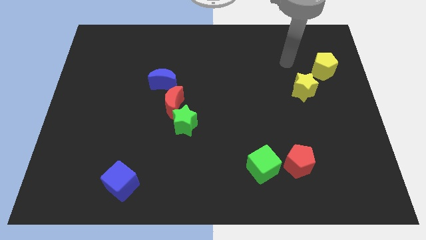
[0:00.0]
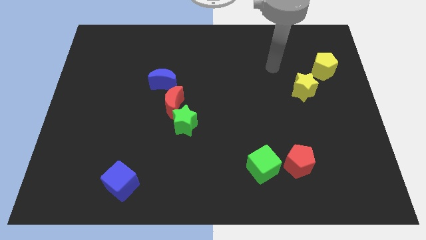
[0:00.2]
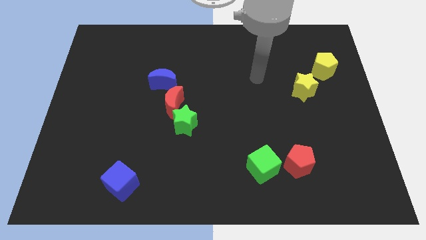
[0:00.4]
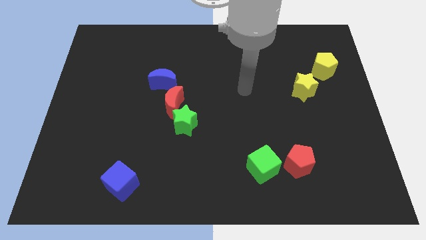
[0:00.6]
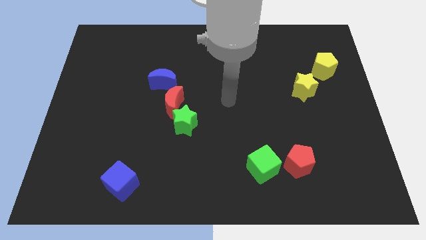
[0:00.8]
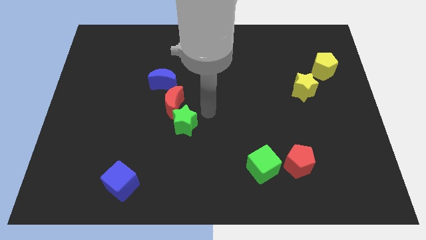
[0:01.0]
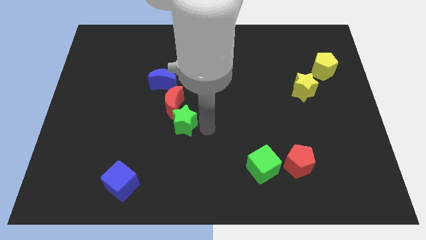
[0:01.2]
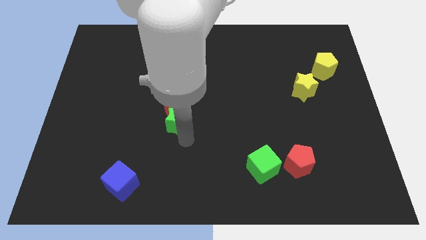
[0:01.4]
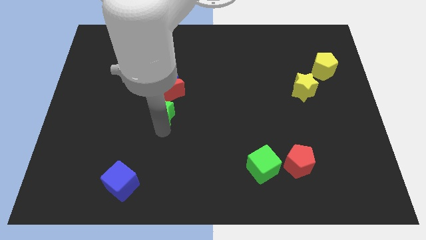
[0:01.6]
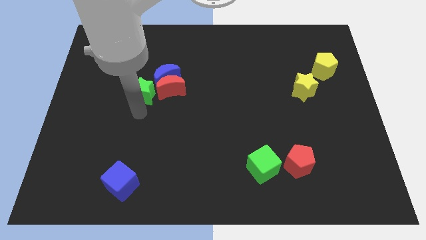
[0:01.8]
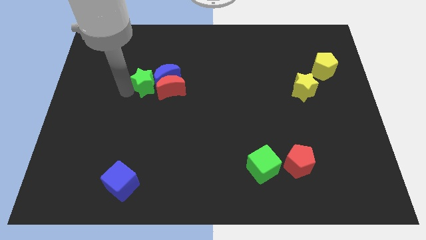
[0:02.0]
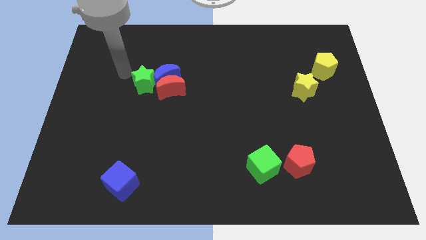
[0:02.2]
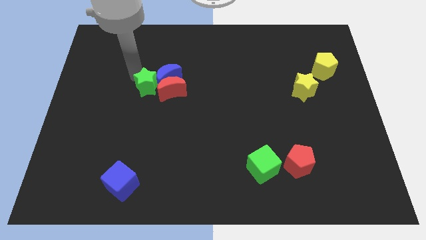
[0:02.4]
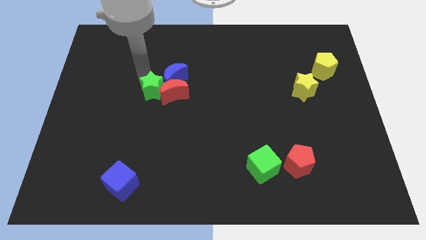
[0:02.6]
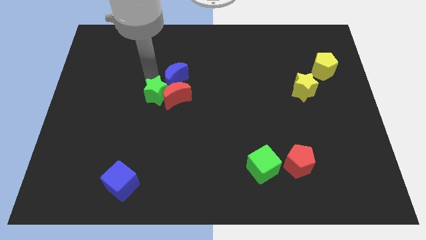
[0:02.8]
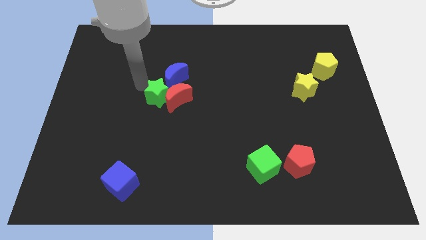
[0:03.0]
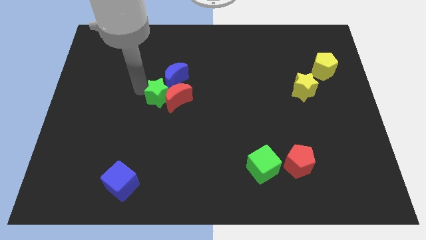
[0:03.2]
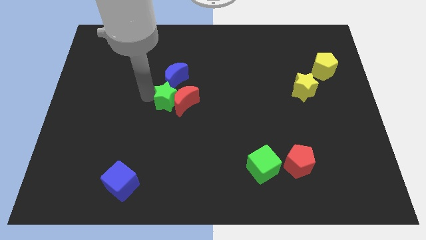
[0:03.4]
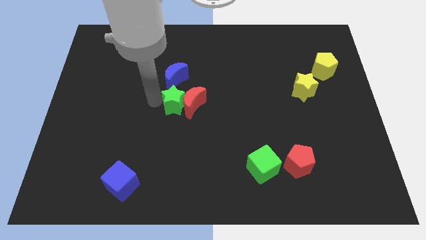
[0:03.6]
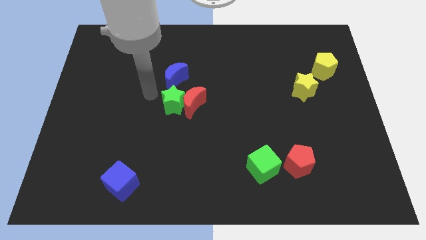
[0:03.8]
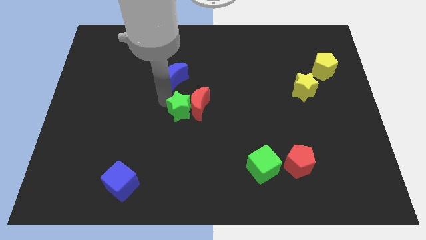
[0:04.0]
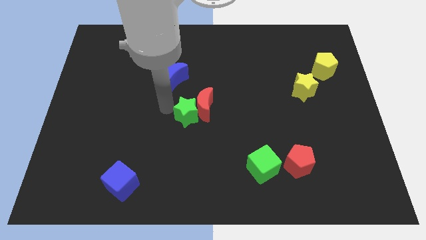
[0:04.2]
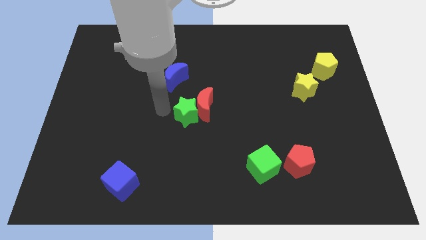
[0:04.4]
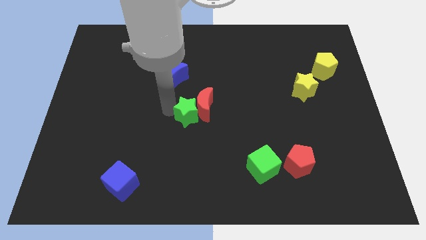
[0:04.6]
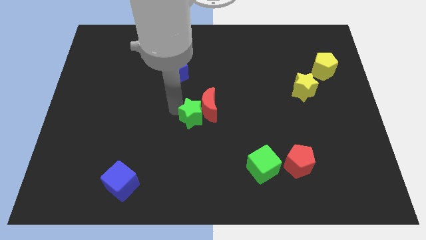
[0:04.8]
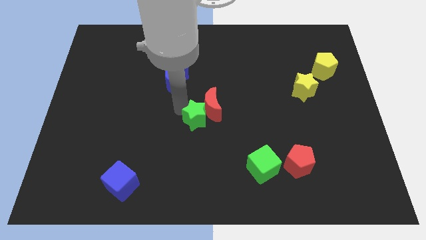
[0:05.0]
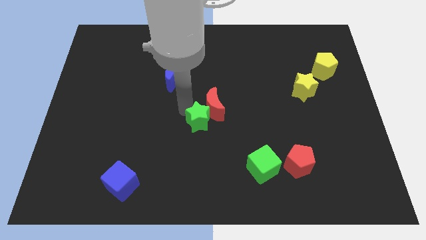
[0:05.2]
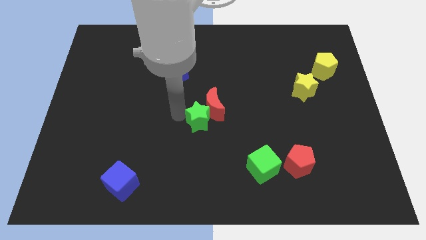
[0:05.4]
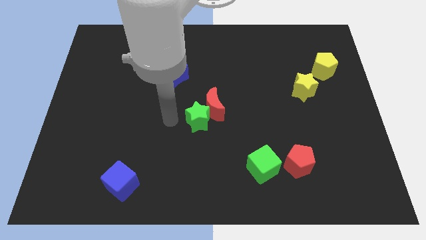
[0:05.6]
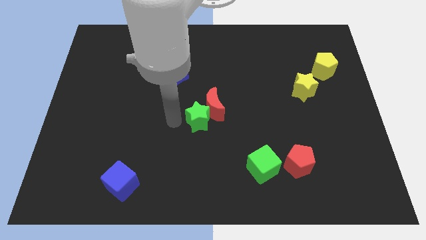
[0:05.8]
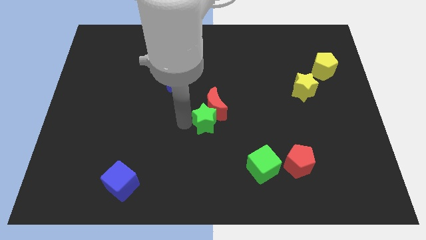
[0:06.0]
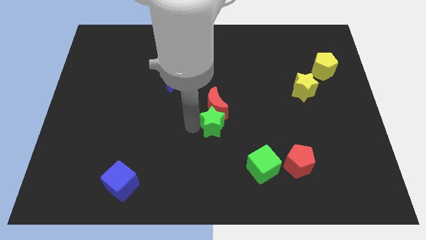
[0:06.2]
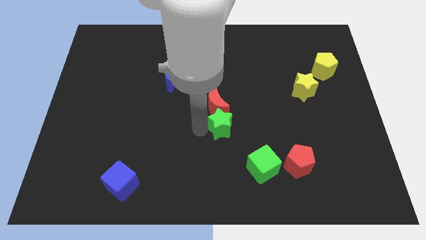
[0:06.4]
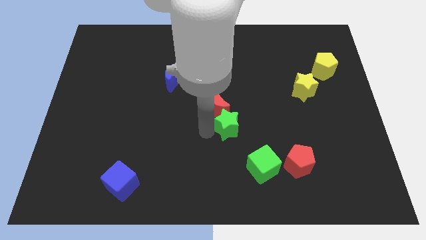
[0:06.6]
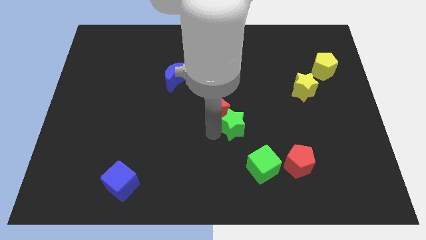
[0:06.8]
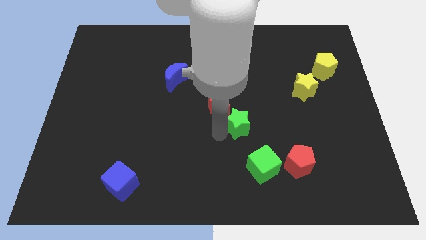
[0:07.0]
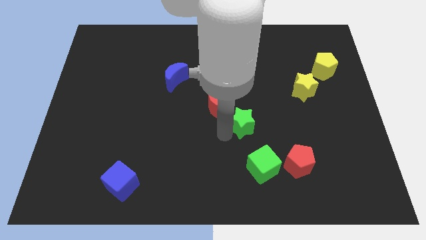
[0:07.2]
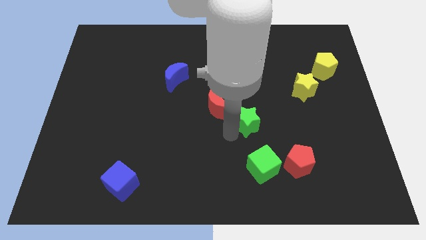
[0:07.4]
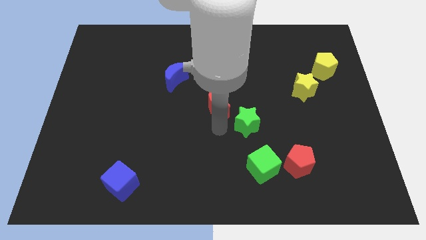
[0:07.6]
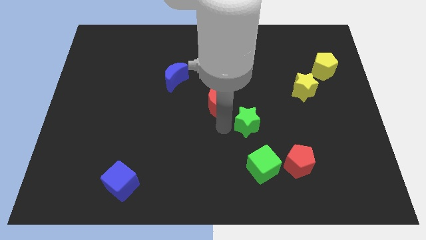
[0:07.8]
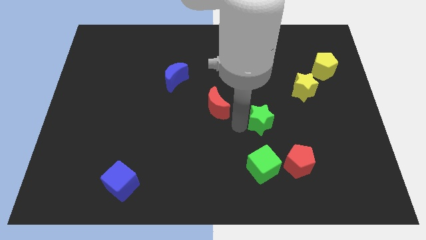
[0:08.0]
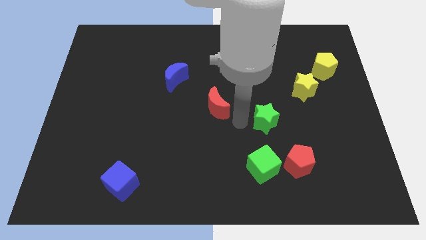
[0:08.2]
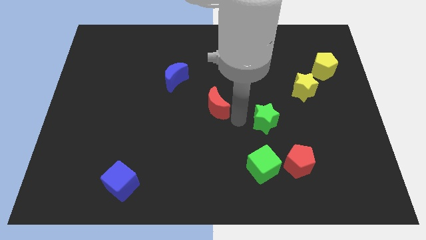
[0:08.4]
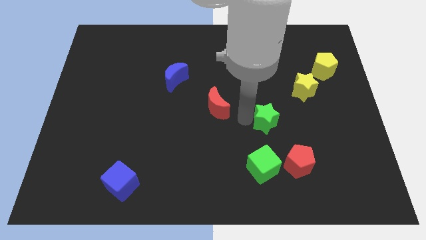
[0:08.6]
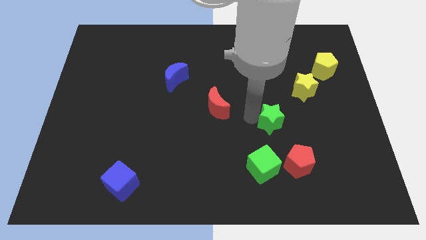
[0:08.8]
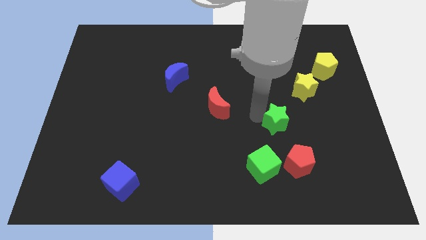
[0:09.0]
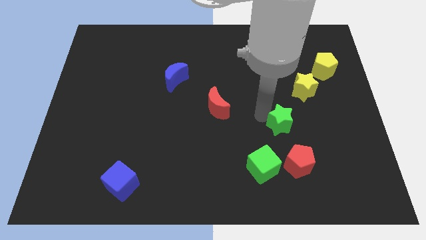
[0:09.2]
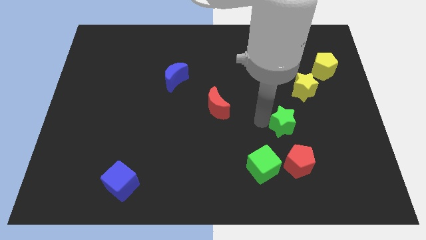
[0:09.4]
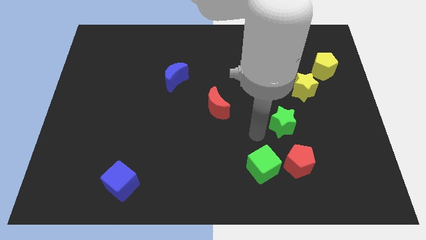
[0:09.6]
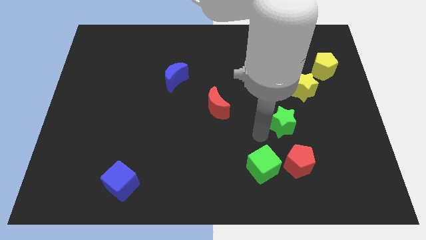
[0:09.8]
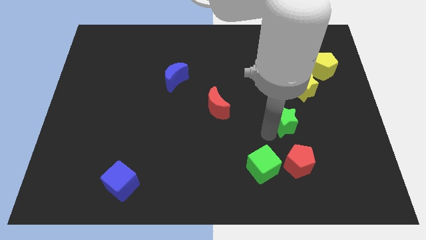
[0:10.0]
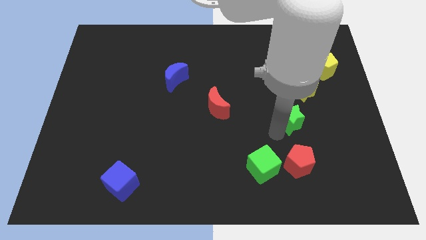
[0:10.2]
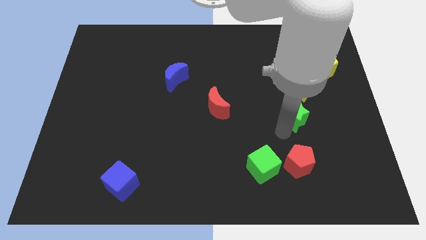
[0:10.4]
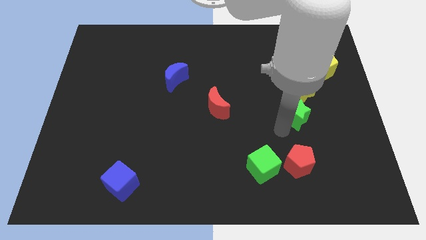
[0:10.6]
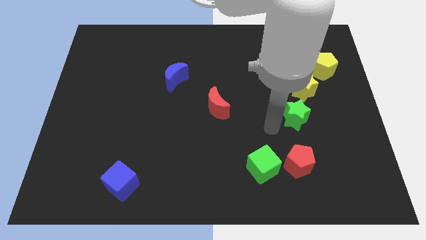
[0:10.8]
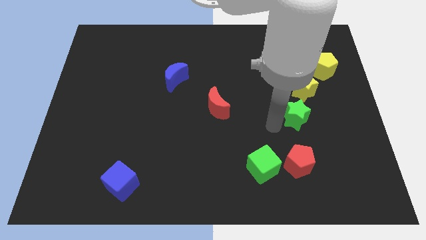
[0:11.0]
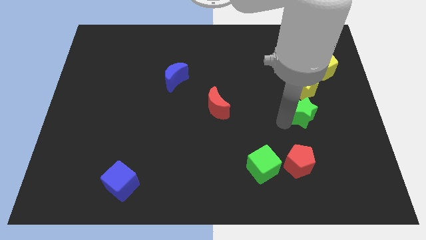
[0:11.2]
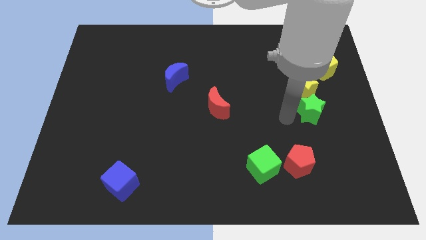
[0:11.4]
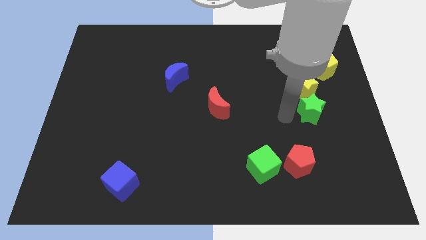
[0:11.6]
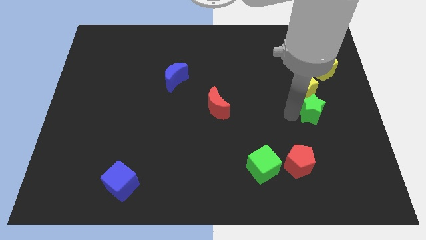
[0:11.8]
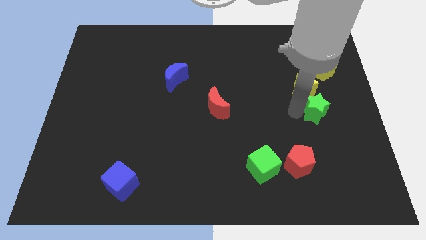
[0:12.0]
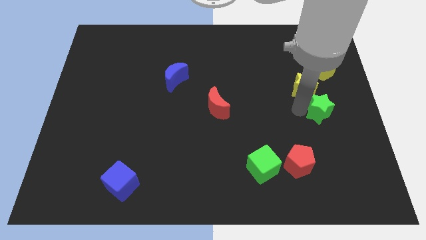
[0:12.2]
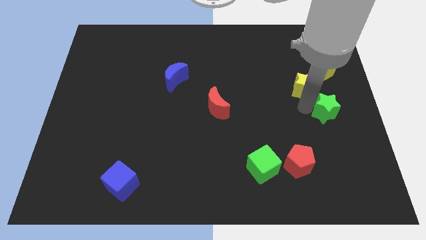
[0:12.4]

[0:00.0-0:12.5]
push the green star to the right side
